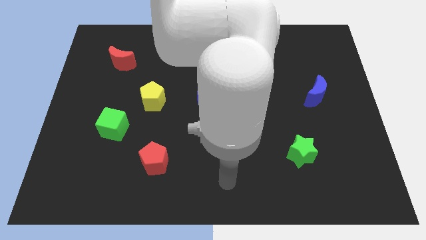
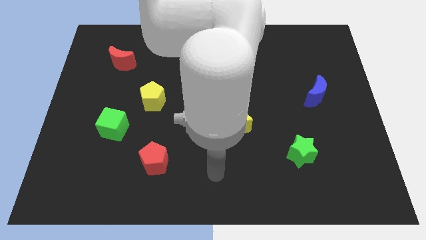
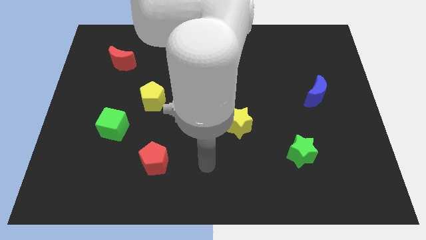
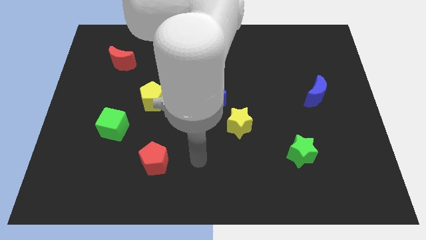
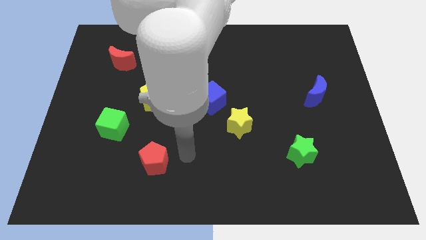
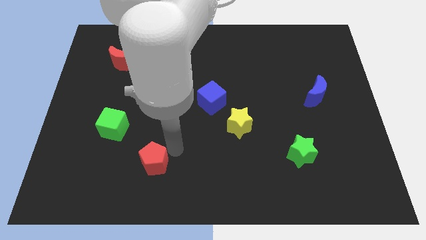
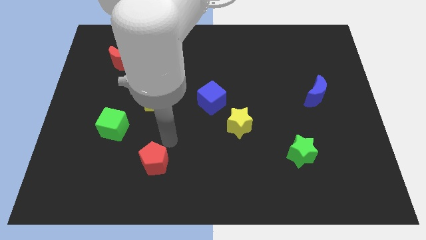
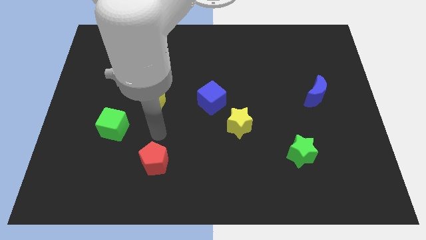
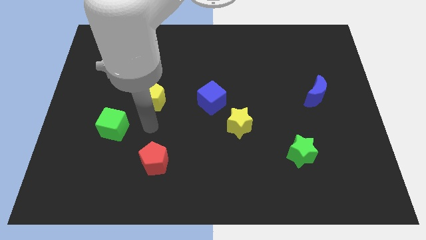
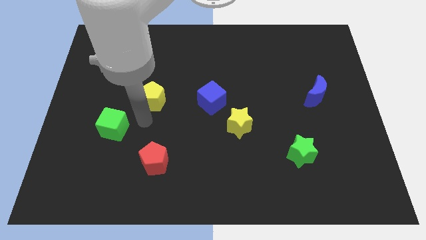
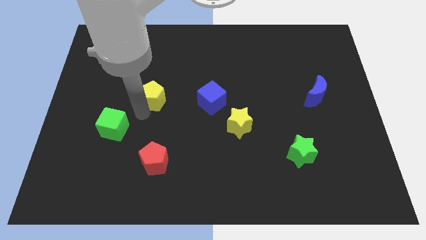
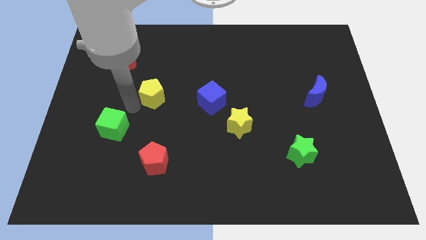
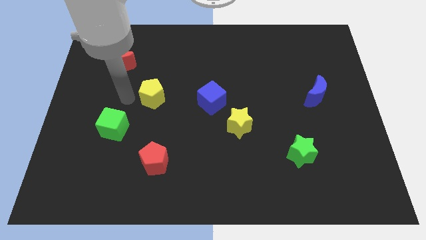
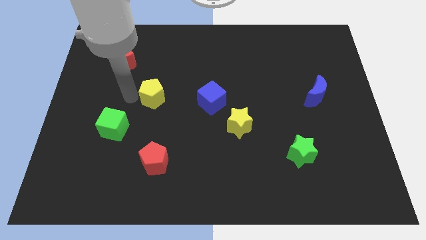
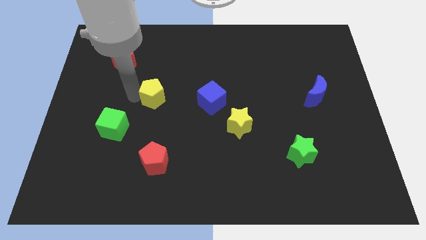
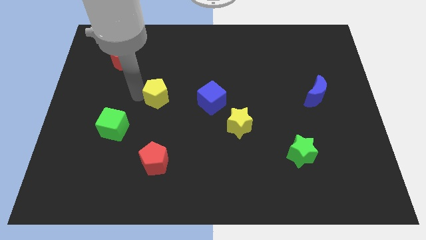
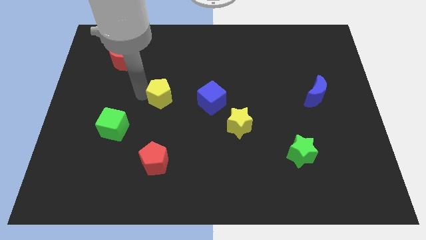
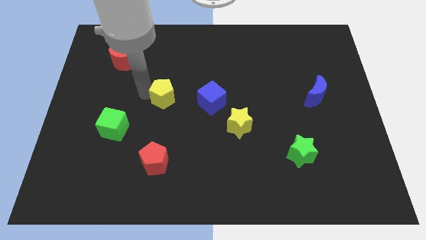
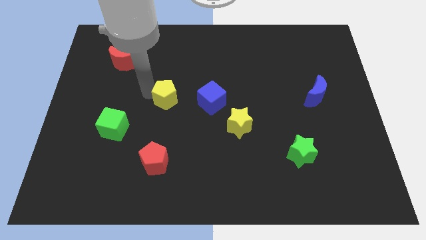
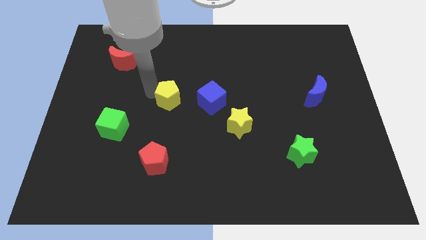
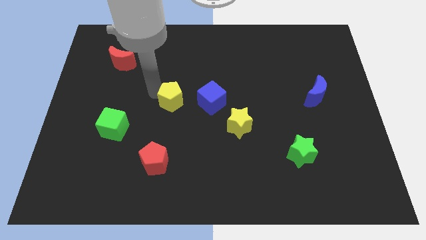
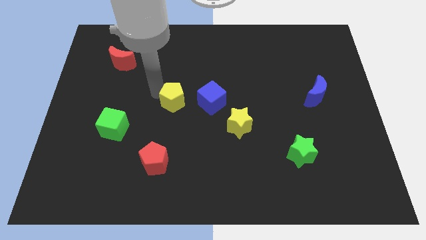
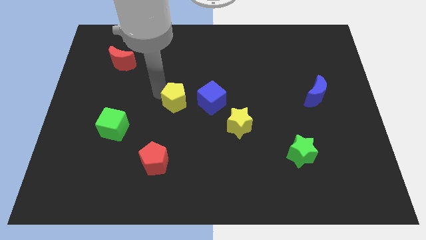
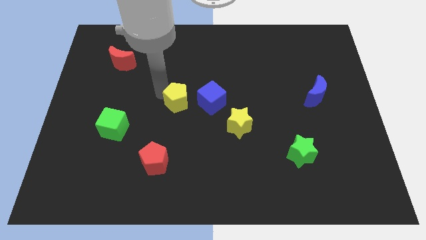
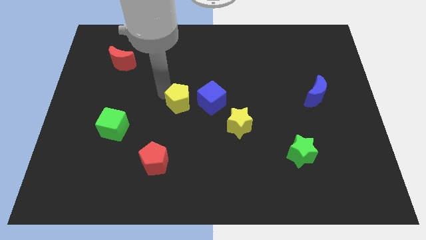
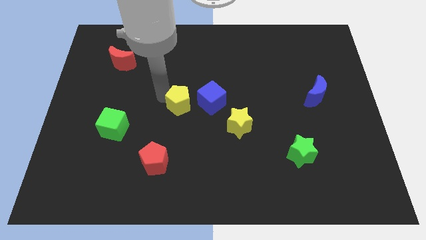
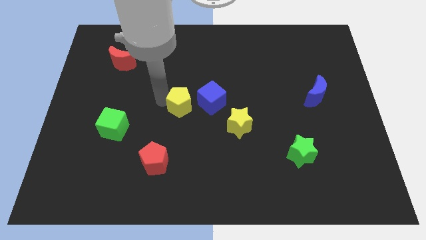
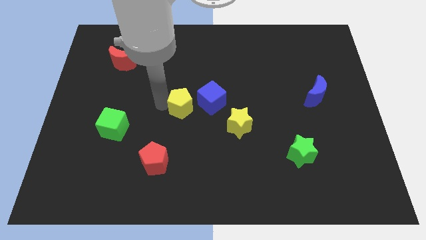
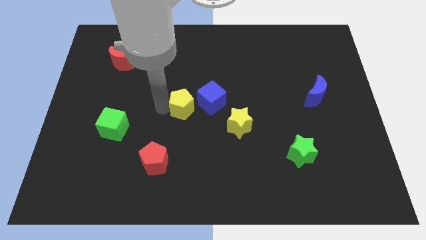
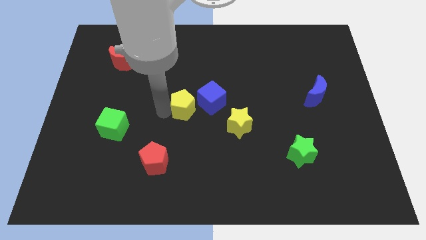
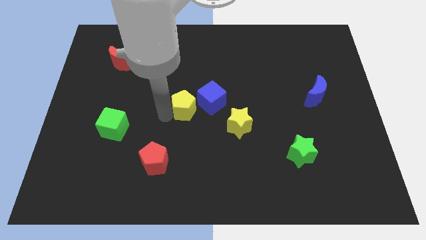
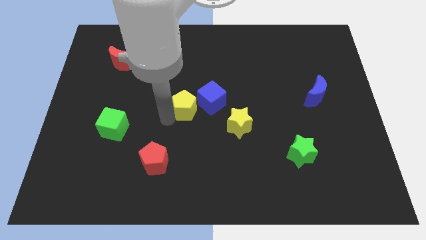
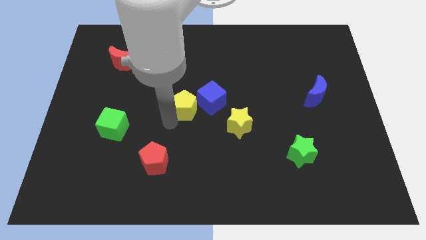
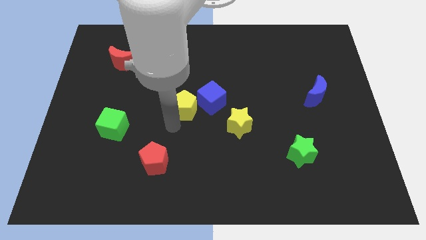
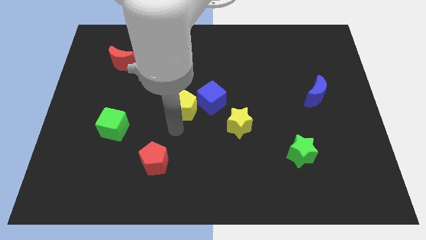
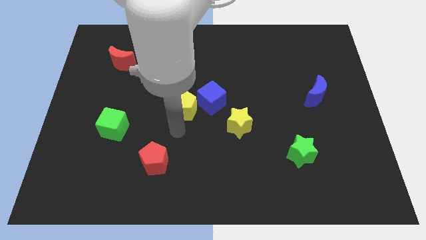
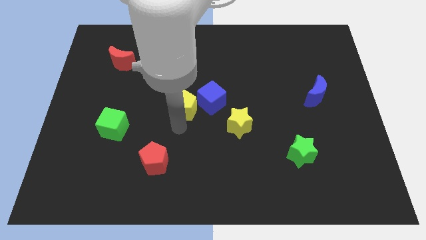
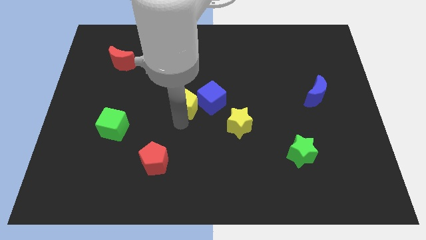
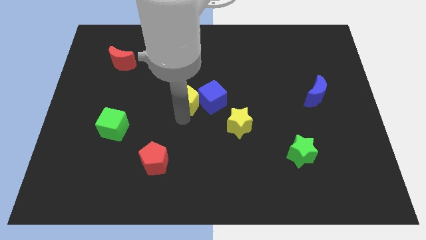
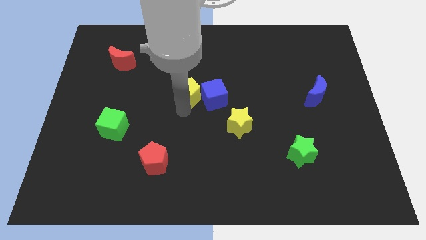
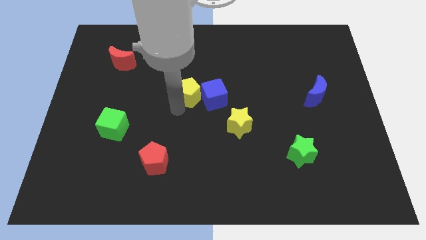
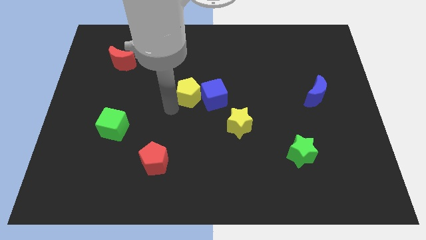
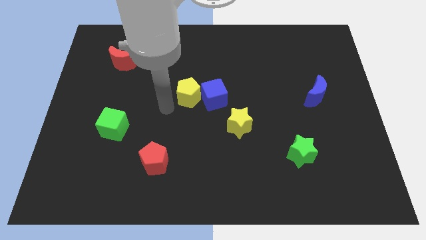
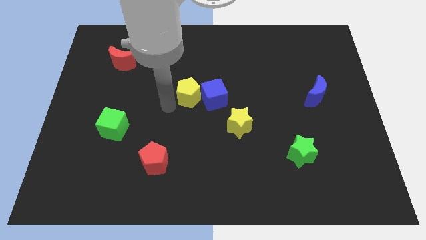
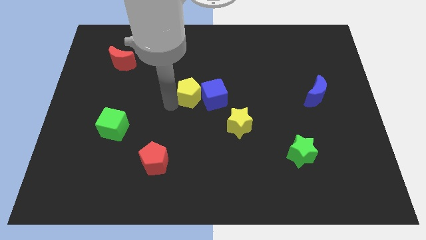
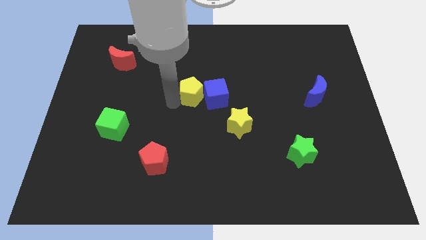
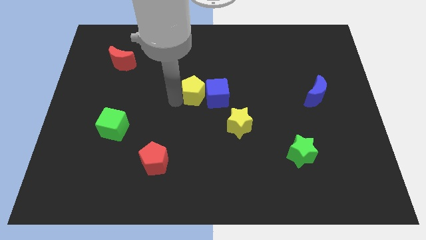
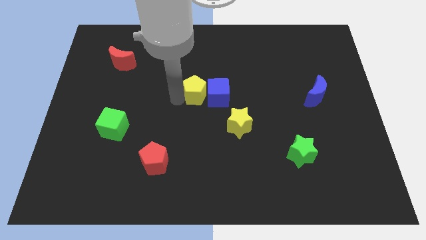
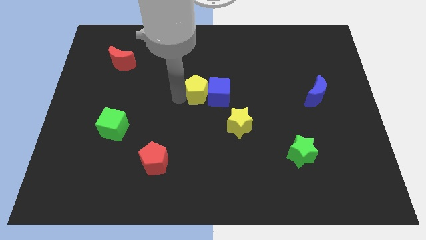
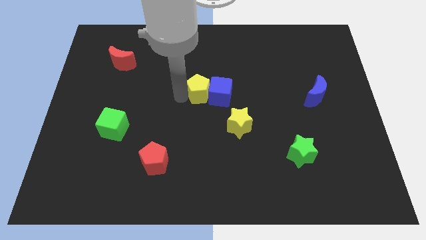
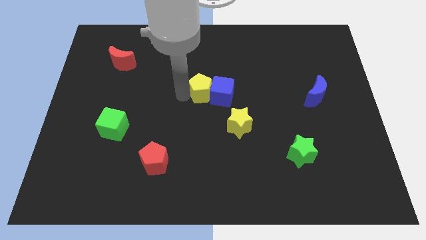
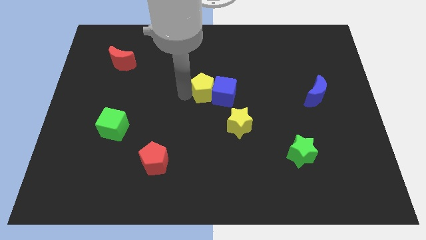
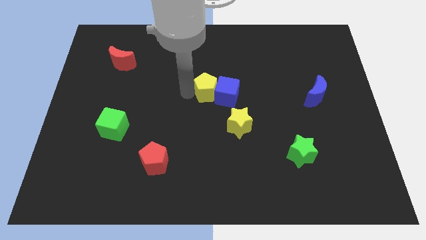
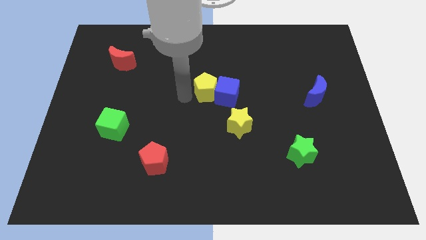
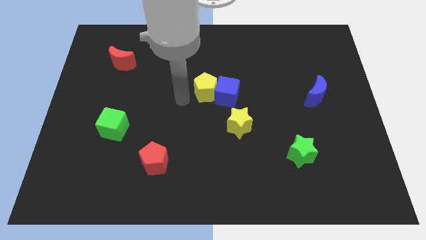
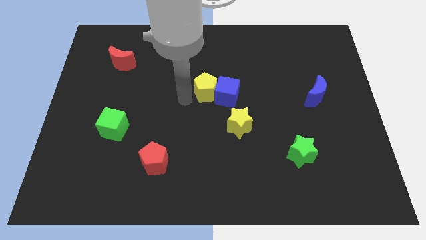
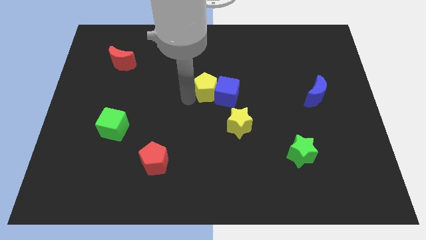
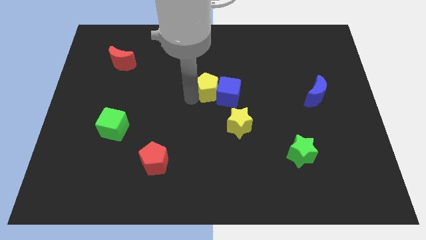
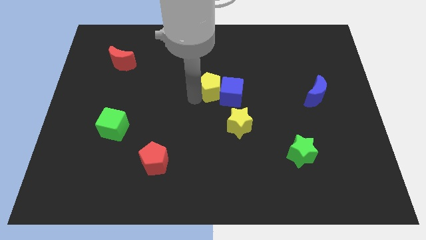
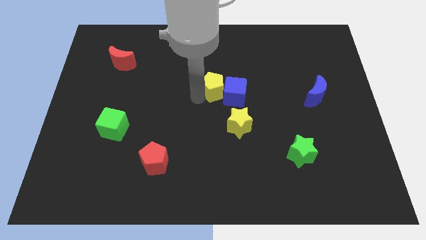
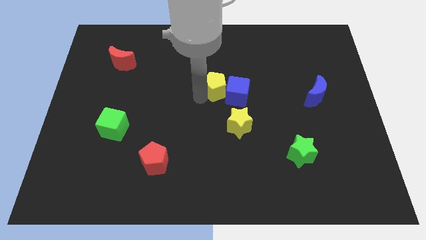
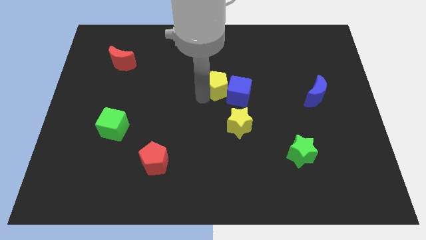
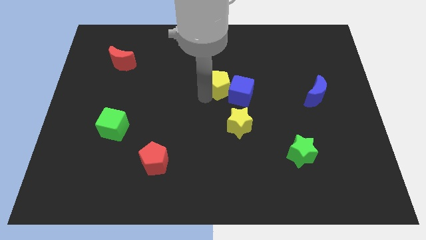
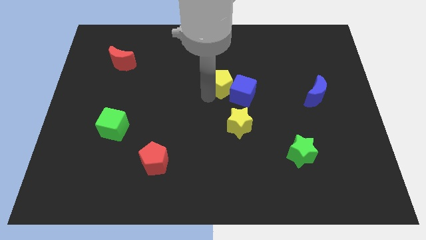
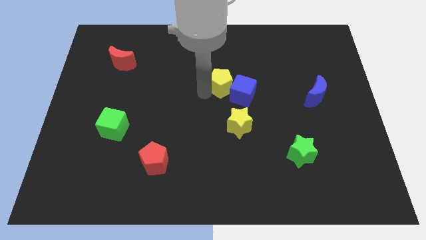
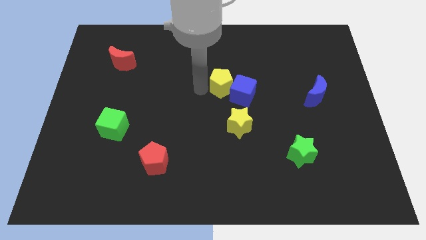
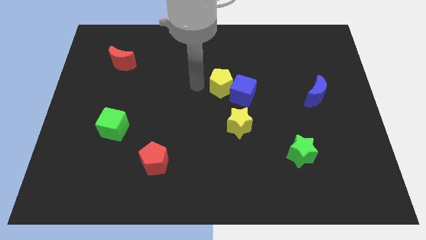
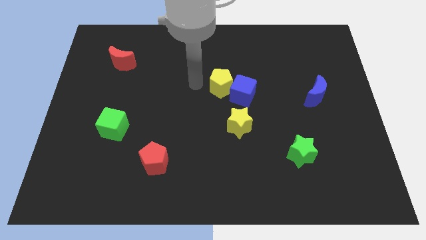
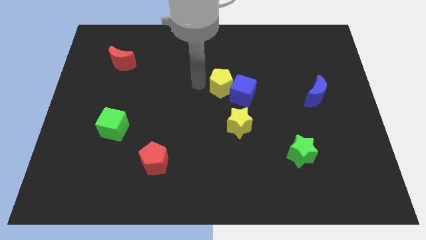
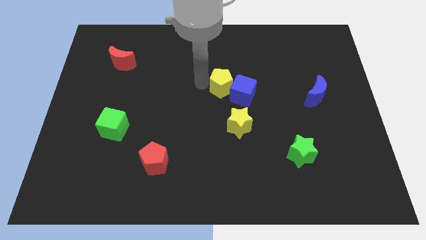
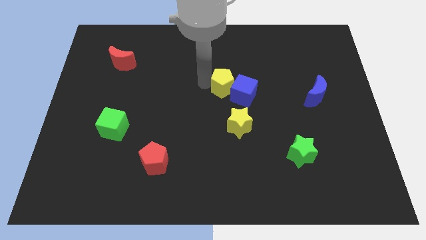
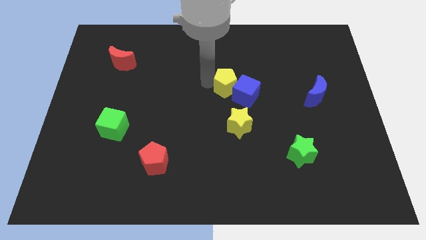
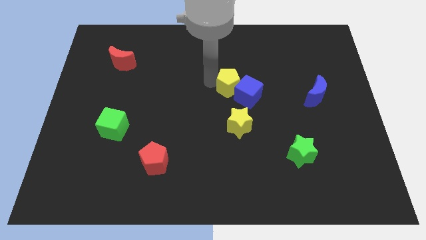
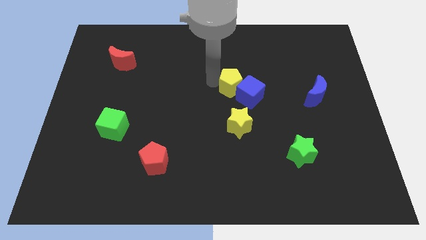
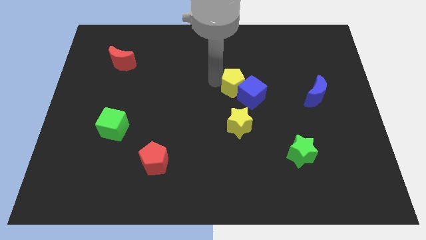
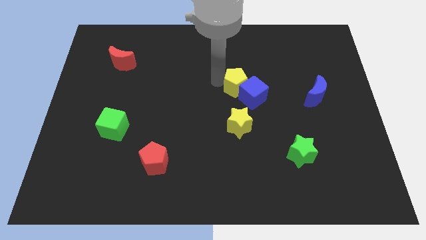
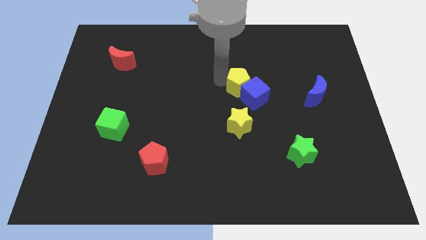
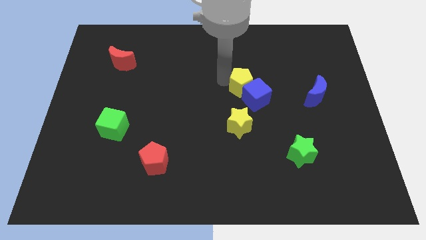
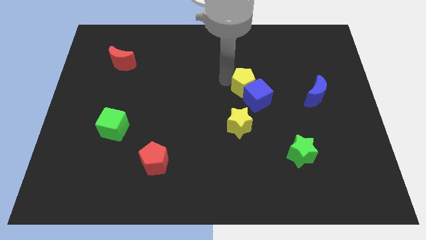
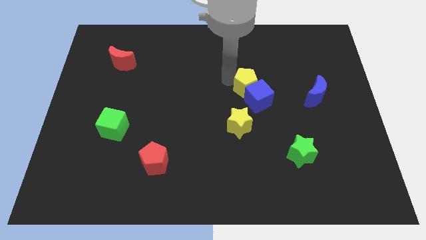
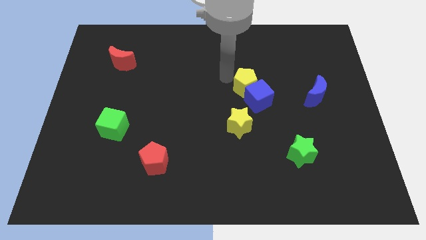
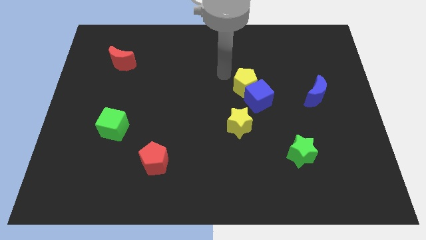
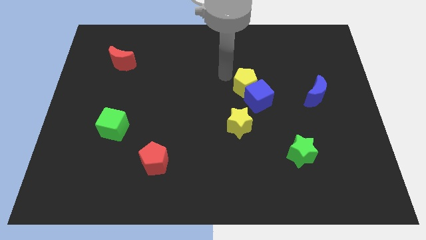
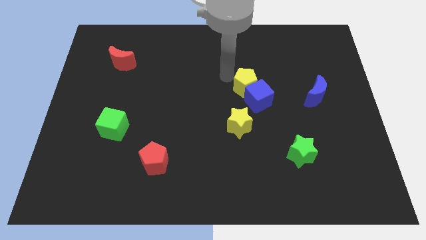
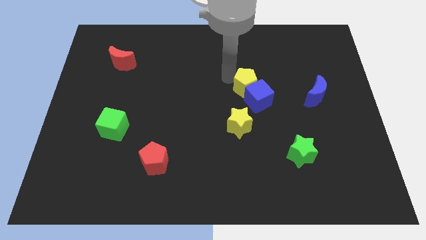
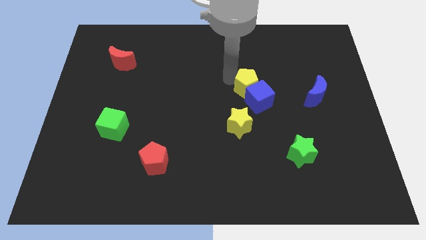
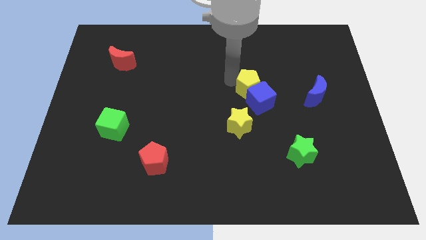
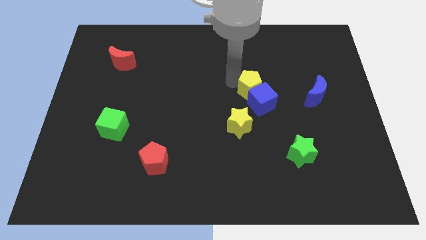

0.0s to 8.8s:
move the yellow pentagon to the left side of the blue moon
